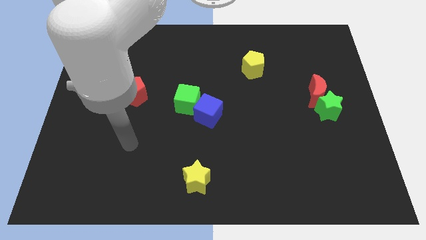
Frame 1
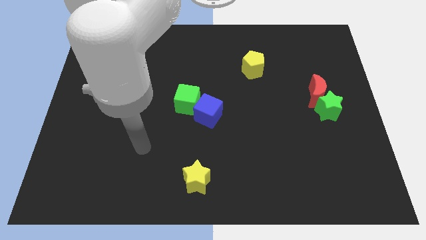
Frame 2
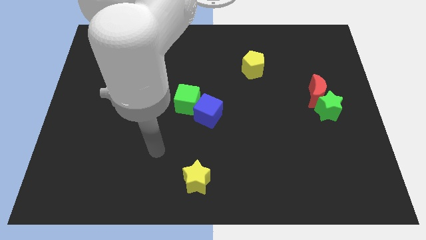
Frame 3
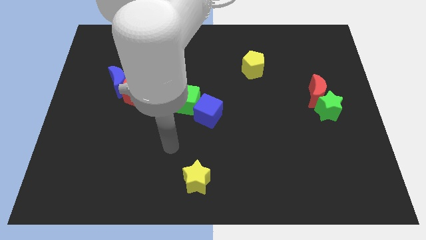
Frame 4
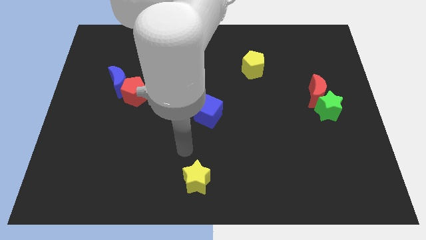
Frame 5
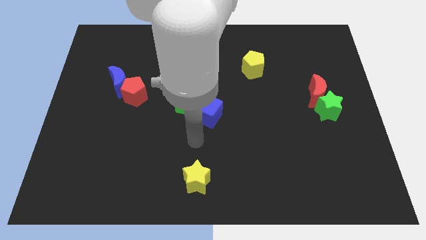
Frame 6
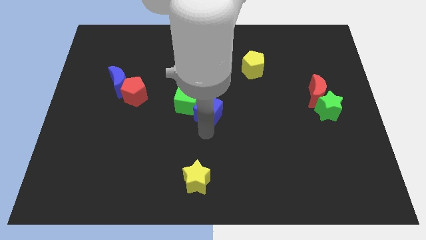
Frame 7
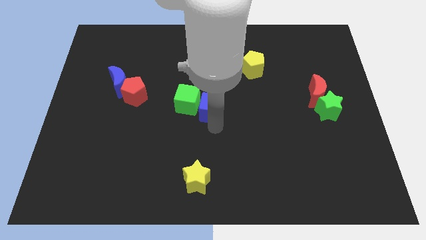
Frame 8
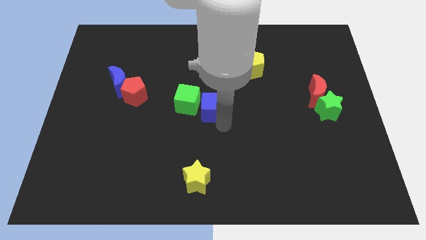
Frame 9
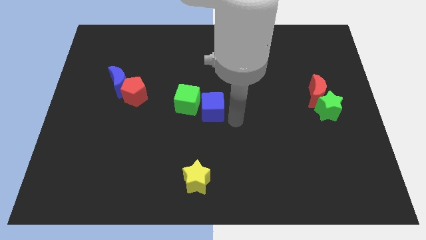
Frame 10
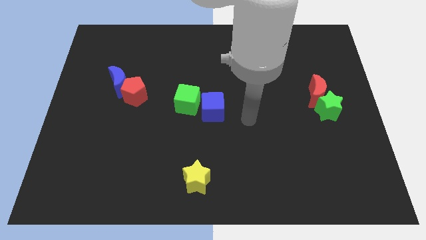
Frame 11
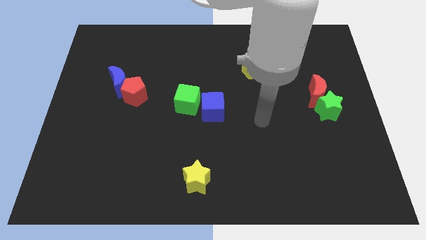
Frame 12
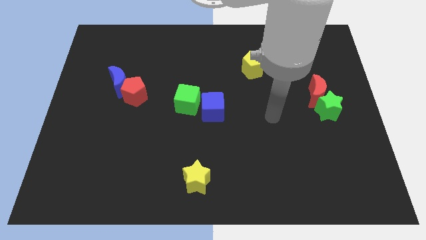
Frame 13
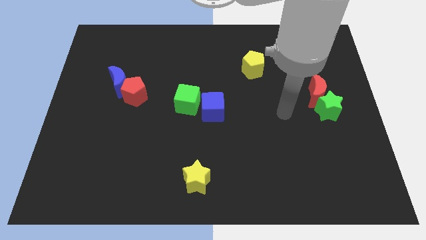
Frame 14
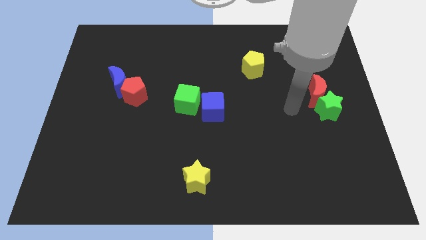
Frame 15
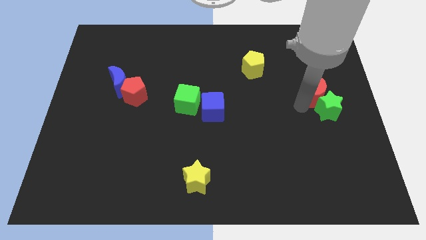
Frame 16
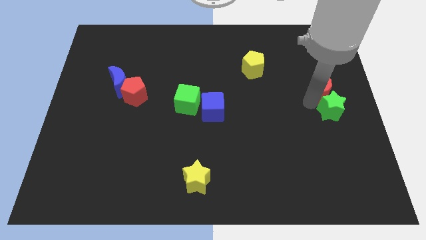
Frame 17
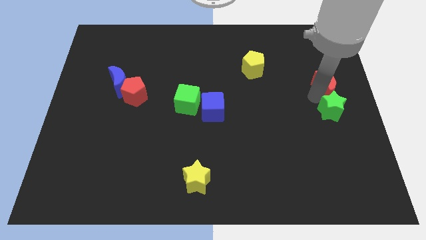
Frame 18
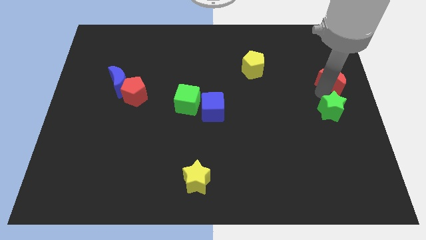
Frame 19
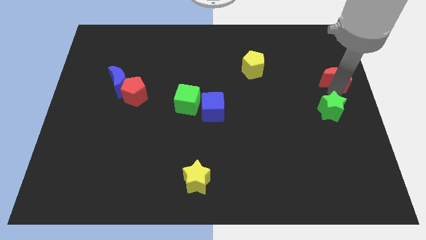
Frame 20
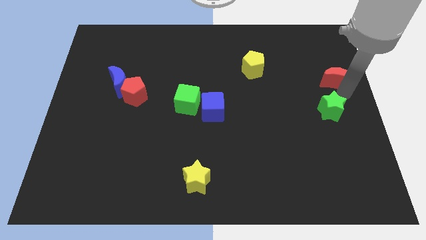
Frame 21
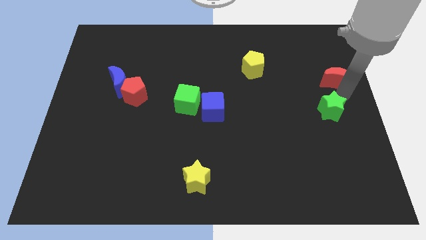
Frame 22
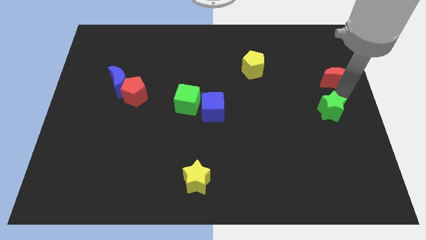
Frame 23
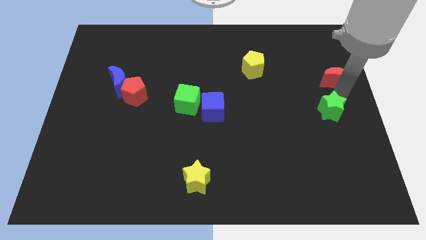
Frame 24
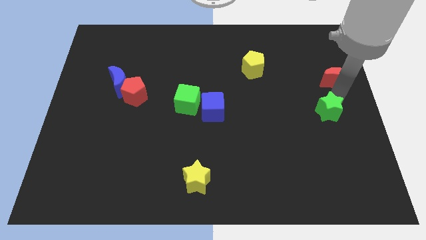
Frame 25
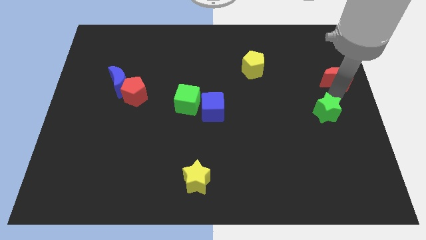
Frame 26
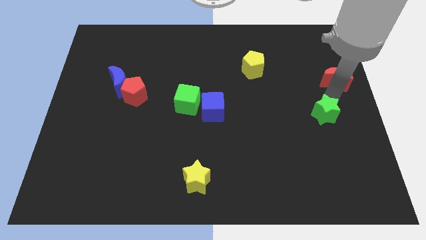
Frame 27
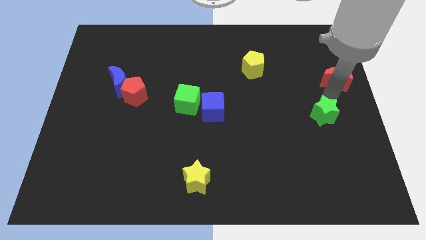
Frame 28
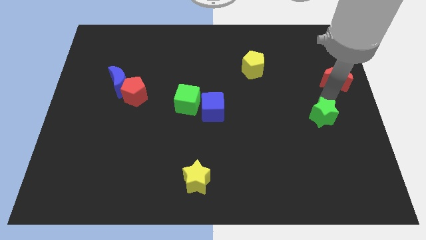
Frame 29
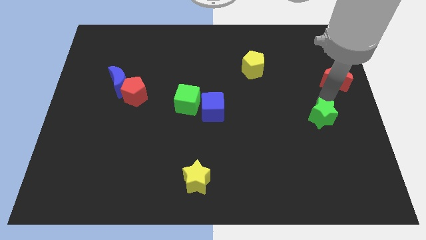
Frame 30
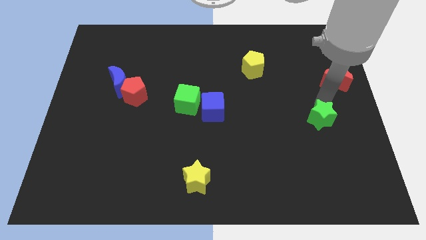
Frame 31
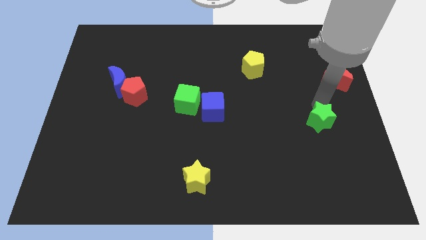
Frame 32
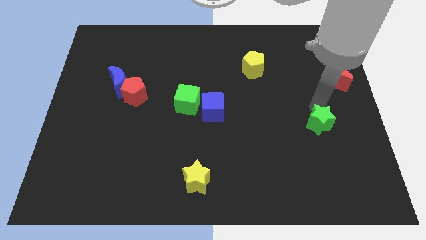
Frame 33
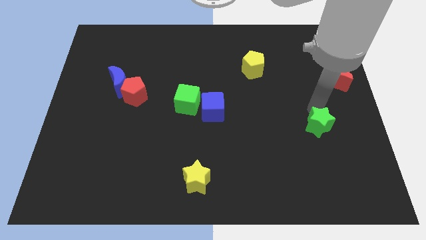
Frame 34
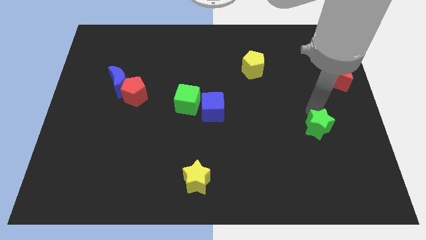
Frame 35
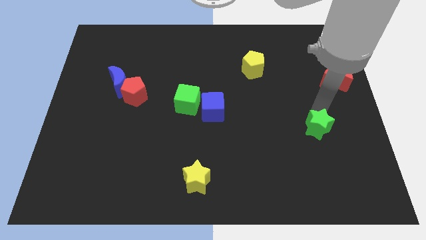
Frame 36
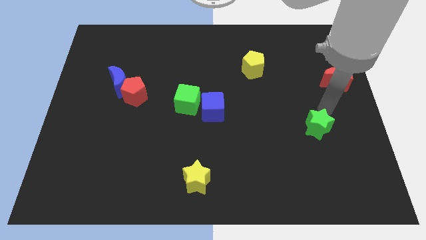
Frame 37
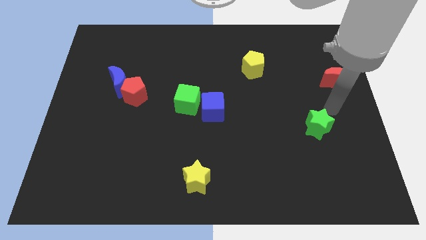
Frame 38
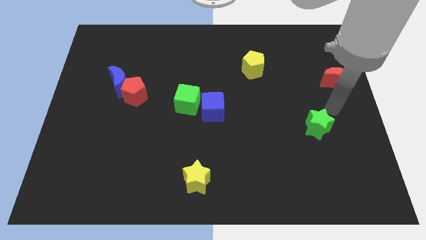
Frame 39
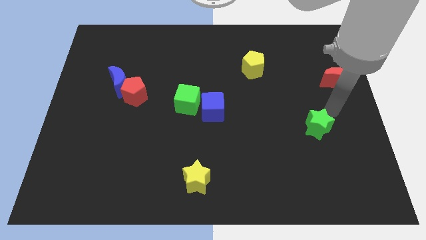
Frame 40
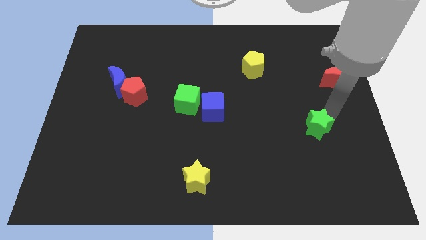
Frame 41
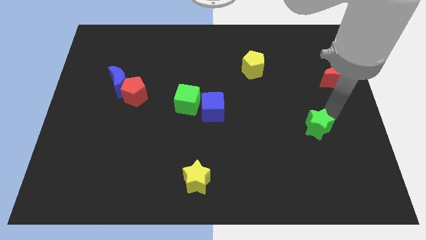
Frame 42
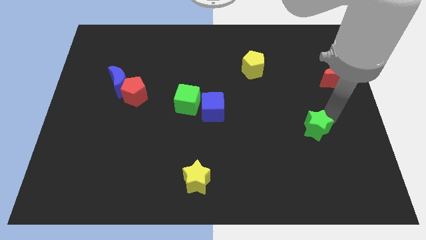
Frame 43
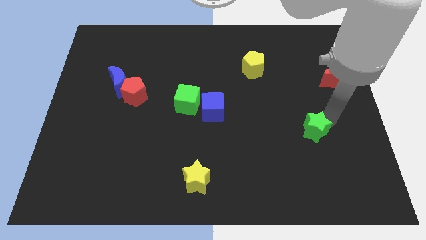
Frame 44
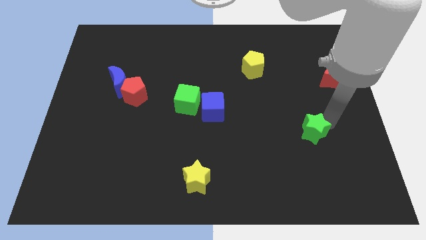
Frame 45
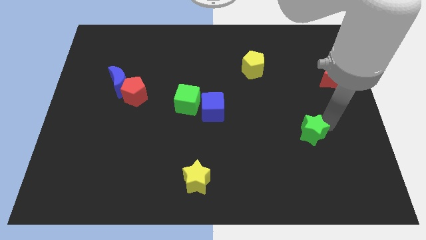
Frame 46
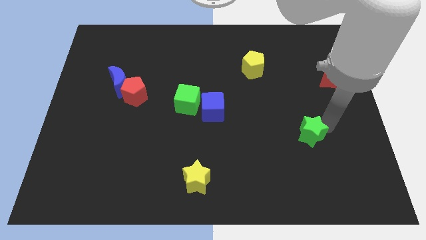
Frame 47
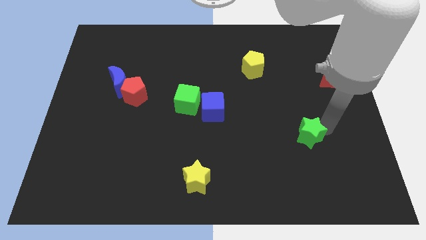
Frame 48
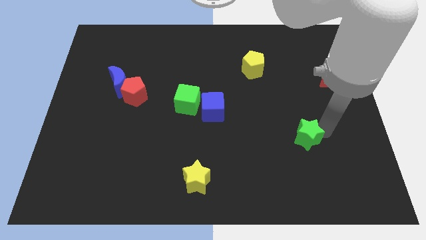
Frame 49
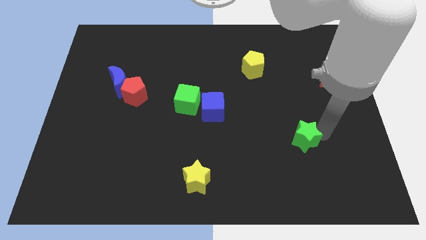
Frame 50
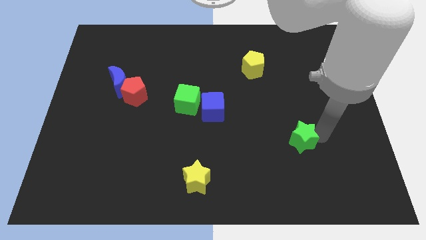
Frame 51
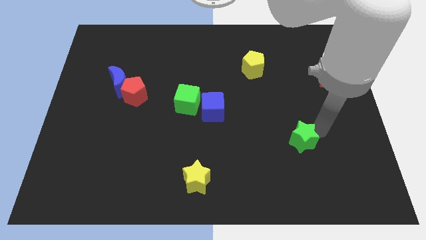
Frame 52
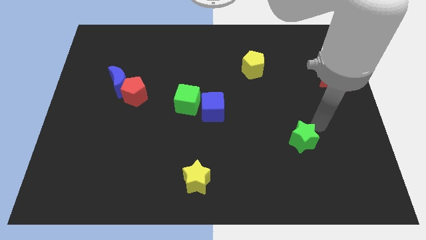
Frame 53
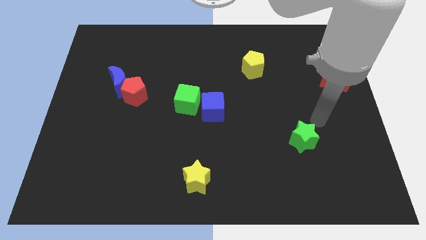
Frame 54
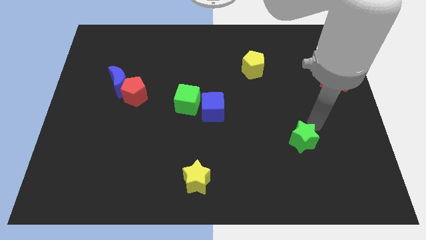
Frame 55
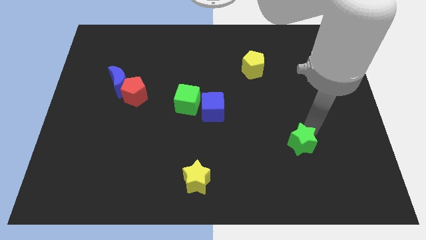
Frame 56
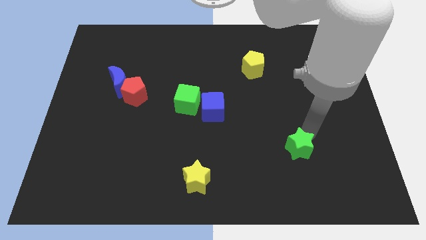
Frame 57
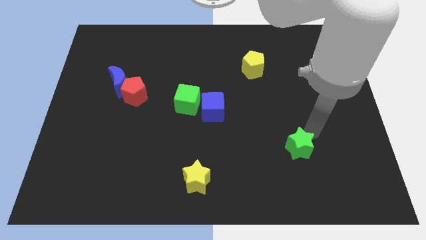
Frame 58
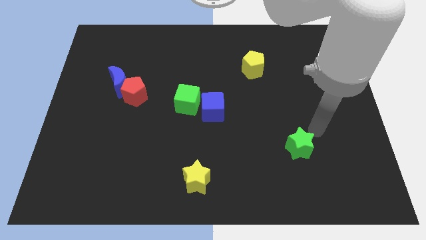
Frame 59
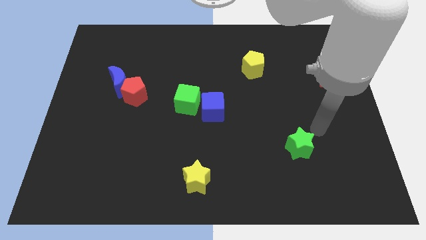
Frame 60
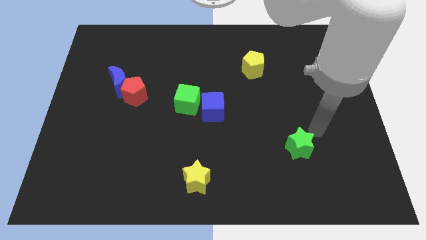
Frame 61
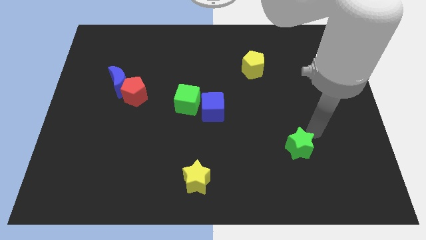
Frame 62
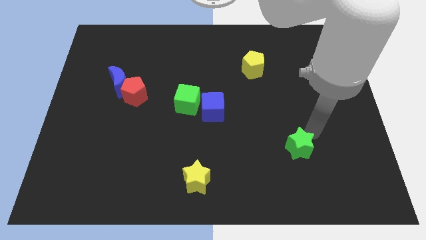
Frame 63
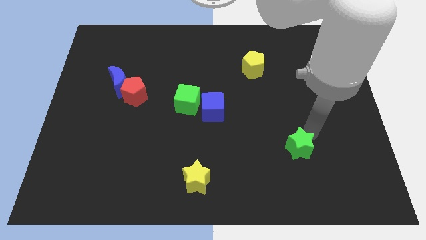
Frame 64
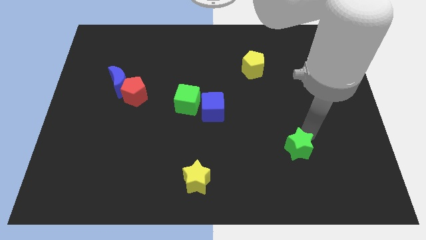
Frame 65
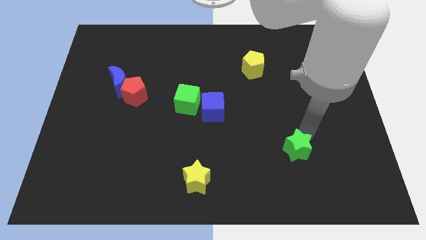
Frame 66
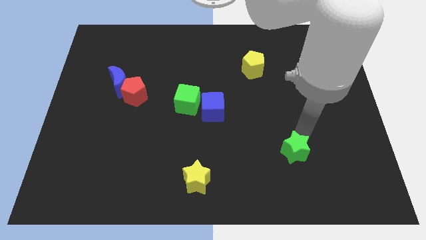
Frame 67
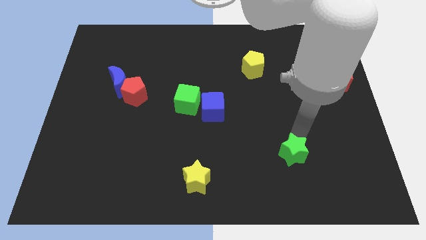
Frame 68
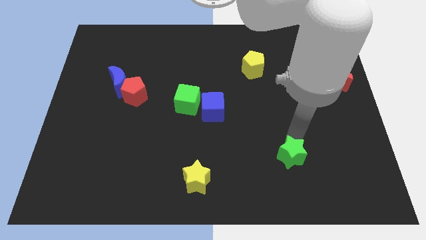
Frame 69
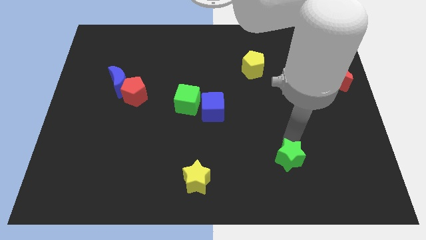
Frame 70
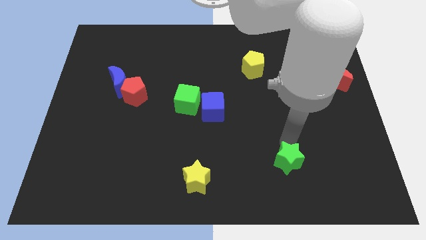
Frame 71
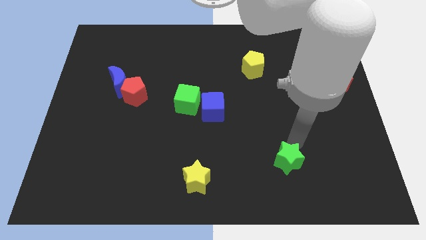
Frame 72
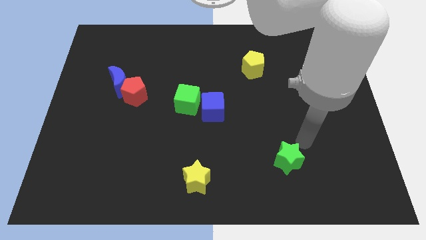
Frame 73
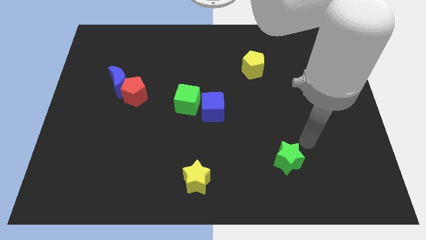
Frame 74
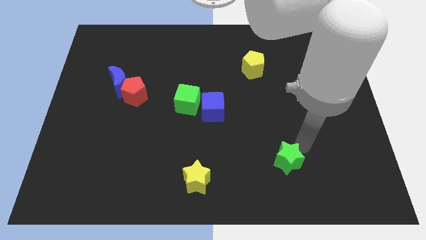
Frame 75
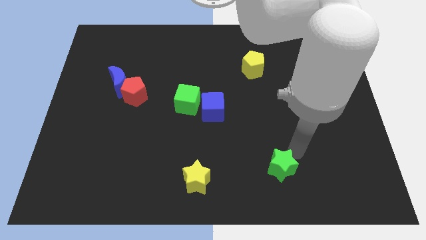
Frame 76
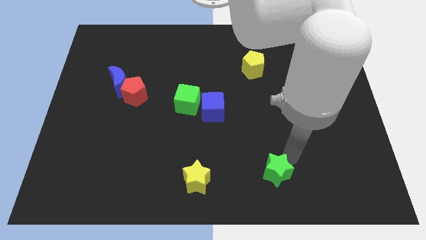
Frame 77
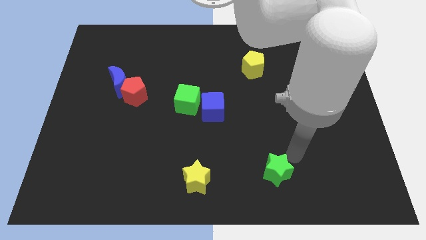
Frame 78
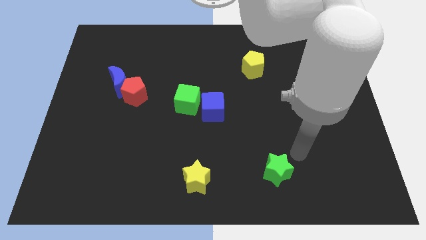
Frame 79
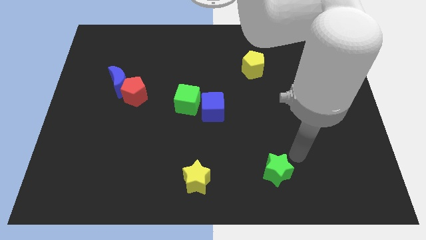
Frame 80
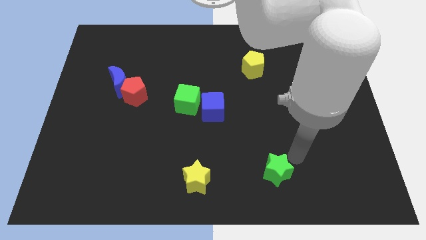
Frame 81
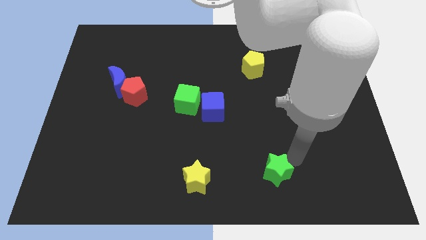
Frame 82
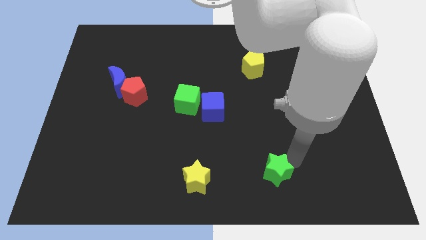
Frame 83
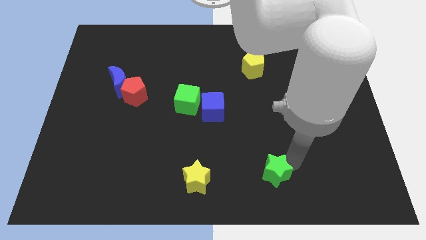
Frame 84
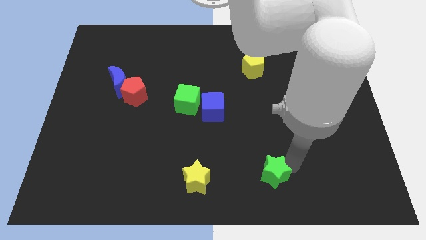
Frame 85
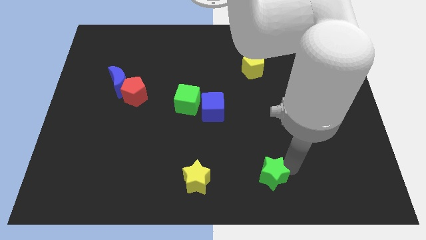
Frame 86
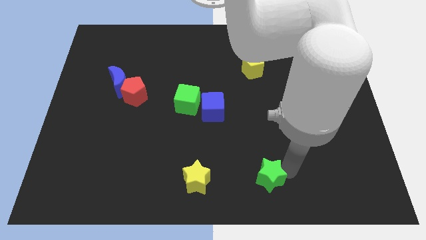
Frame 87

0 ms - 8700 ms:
move the green star to the bottom
